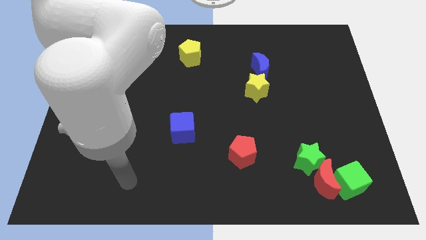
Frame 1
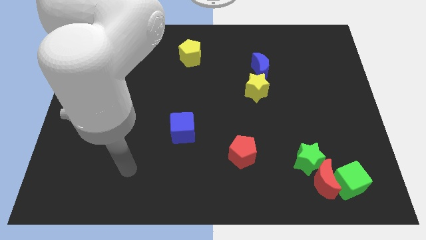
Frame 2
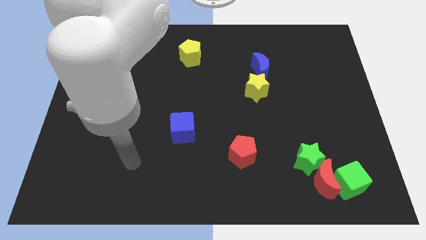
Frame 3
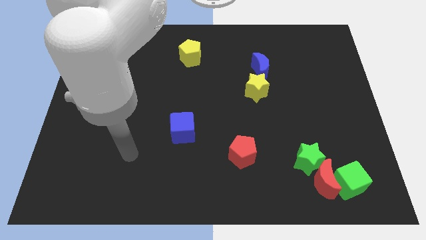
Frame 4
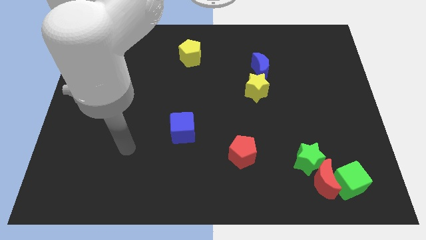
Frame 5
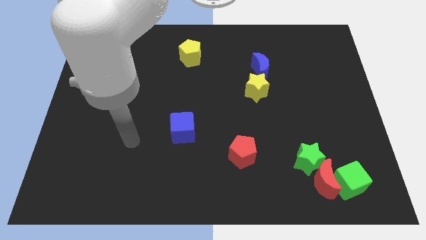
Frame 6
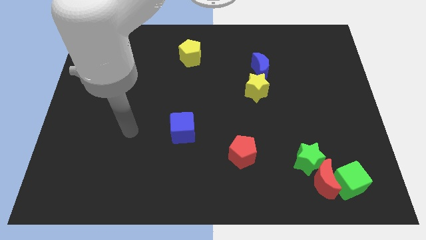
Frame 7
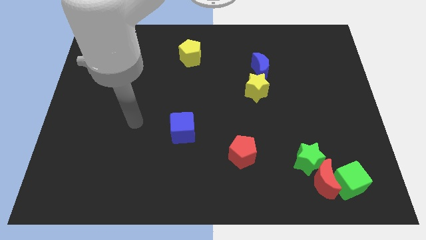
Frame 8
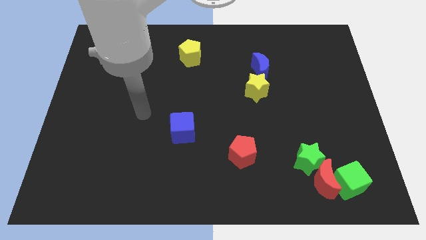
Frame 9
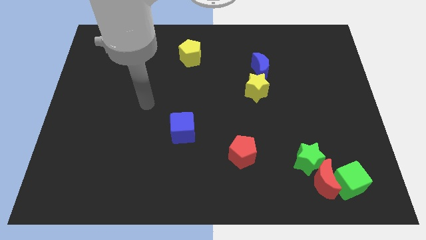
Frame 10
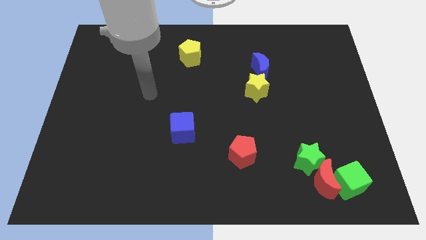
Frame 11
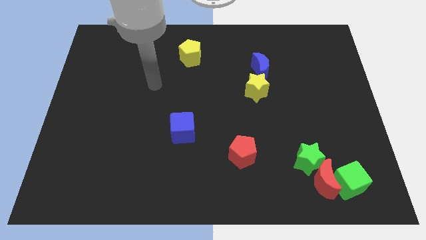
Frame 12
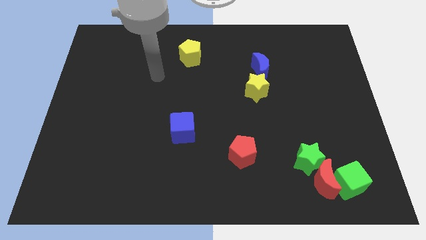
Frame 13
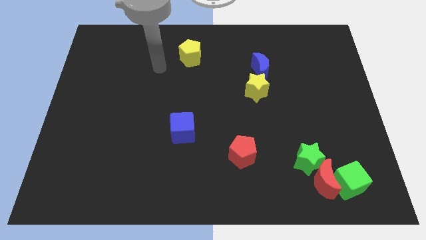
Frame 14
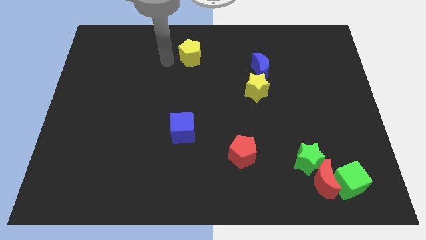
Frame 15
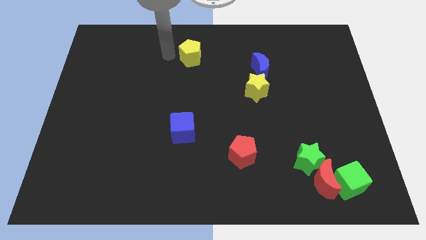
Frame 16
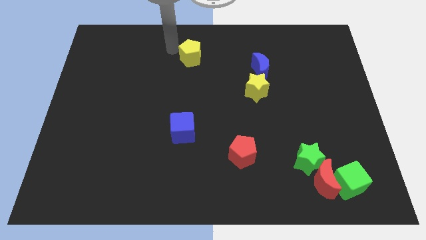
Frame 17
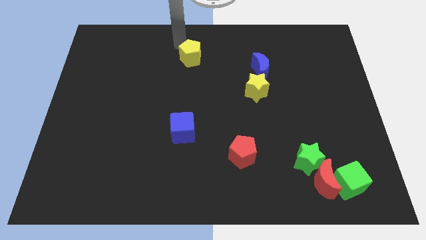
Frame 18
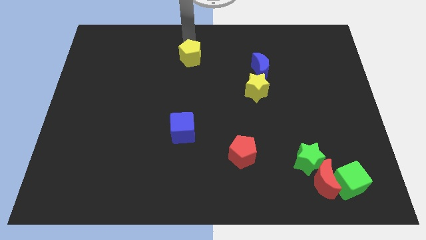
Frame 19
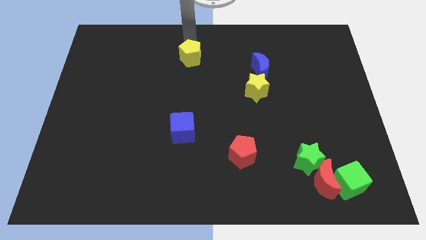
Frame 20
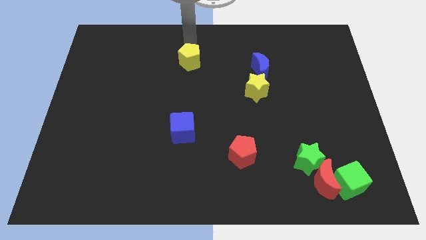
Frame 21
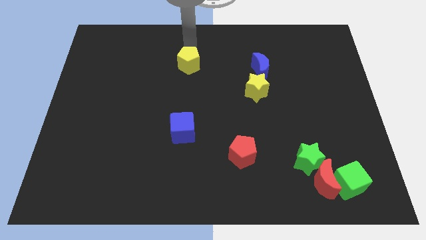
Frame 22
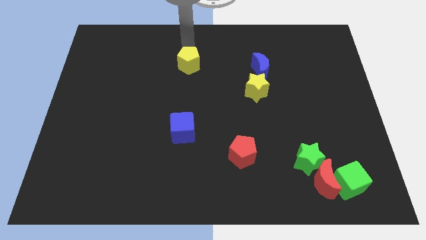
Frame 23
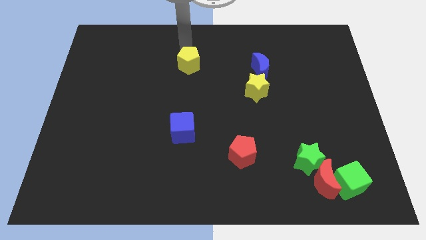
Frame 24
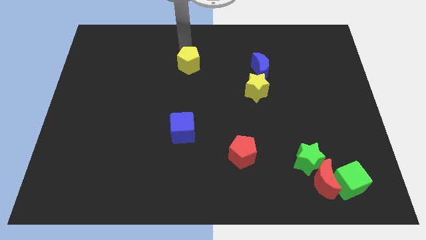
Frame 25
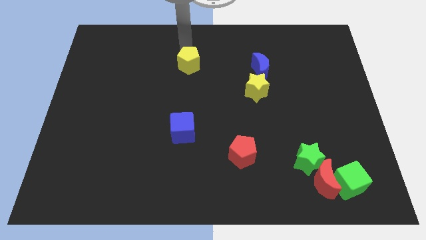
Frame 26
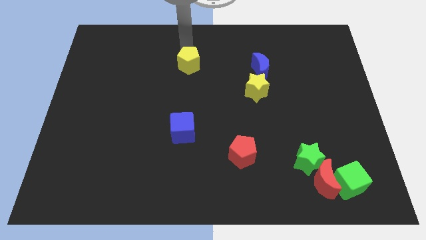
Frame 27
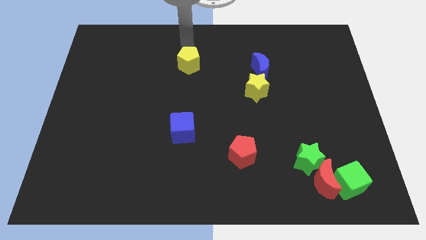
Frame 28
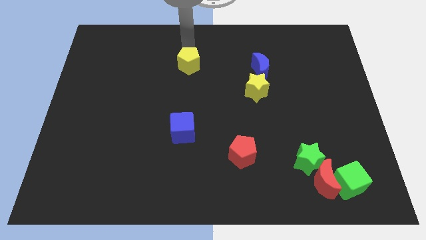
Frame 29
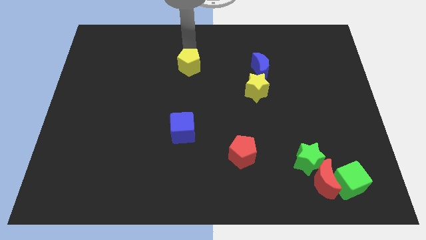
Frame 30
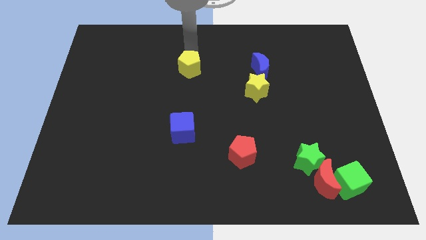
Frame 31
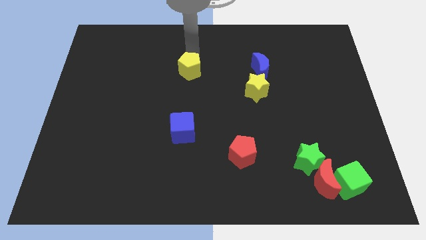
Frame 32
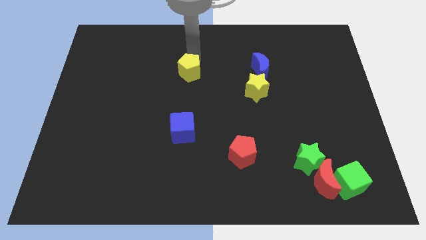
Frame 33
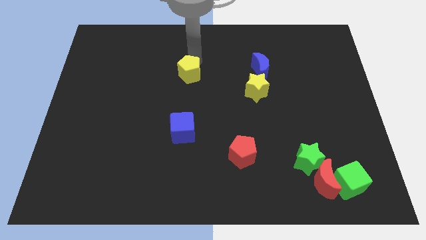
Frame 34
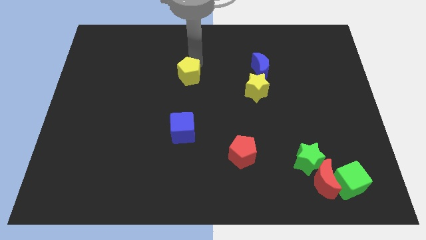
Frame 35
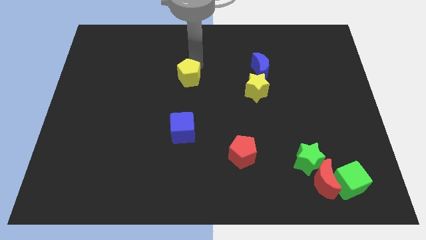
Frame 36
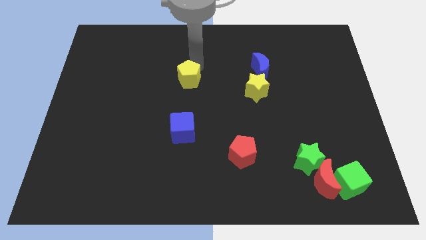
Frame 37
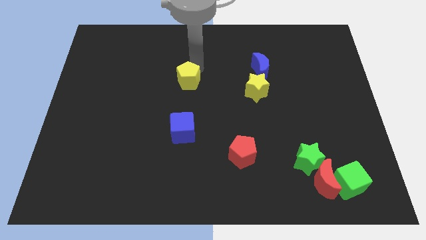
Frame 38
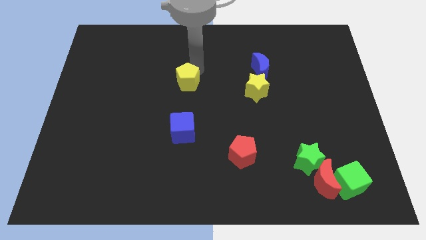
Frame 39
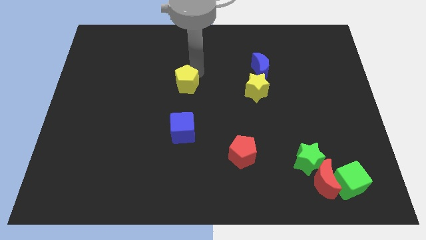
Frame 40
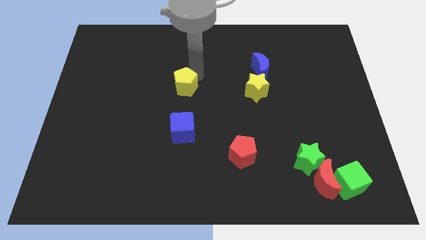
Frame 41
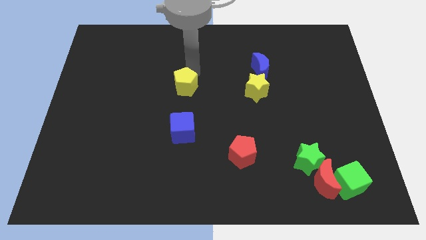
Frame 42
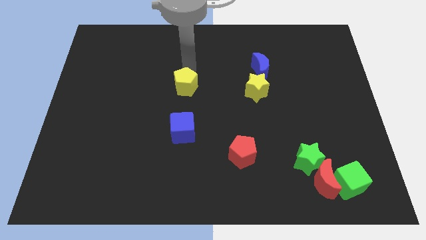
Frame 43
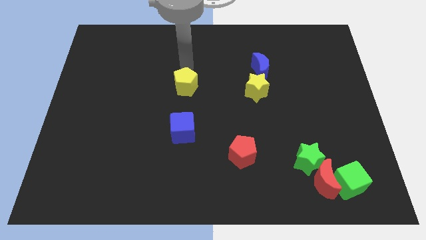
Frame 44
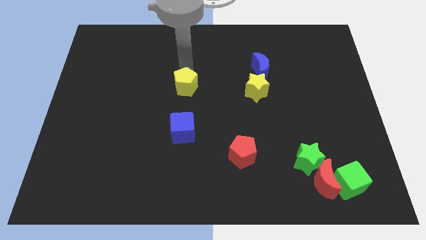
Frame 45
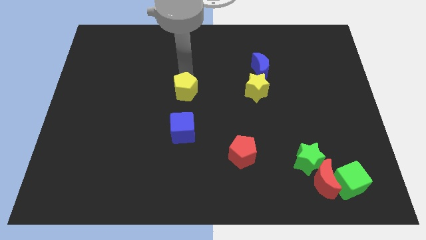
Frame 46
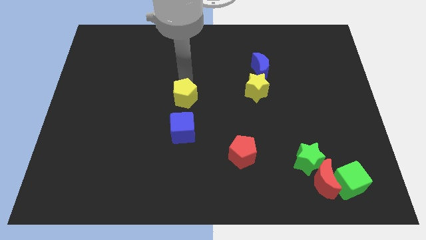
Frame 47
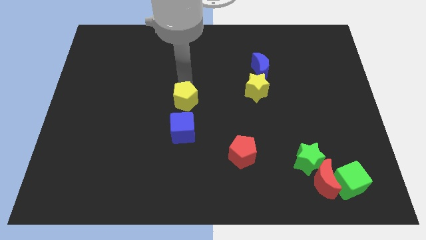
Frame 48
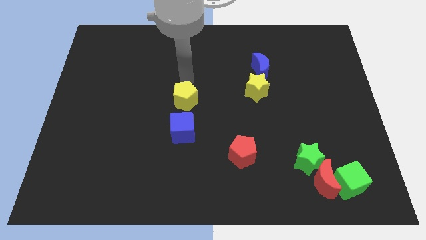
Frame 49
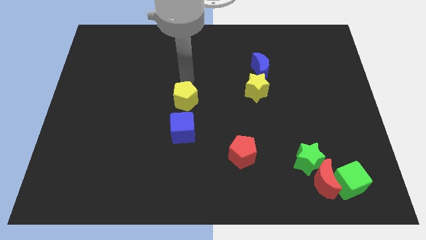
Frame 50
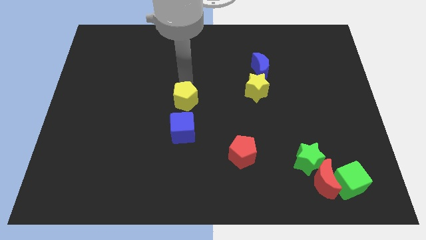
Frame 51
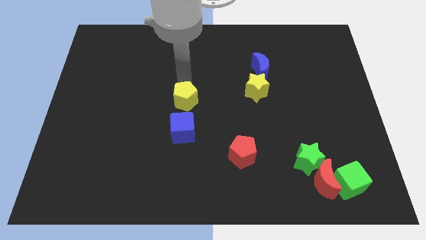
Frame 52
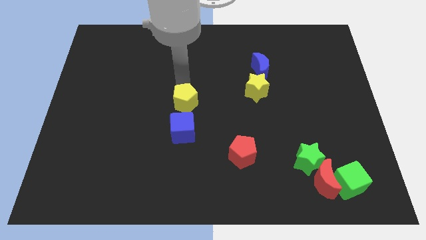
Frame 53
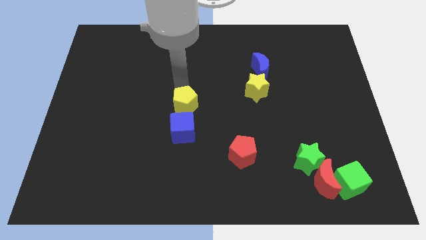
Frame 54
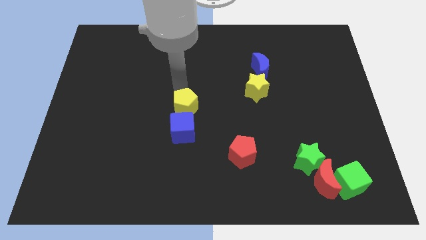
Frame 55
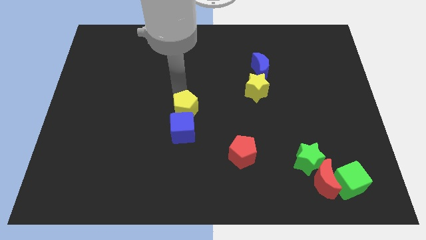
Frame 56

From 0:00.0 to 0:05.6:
slide the yellow pentagon close to the blue cube

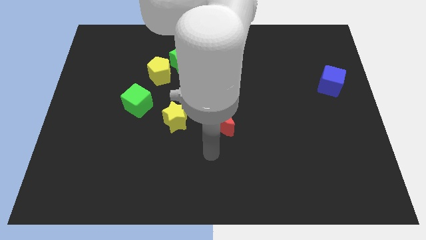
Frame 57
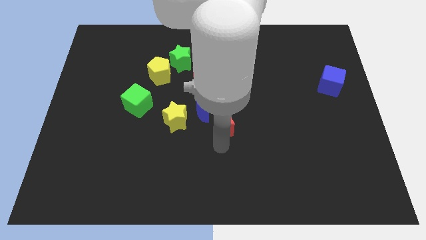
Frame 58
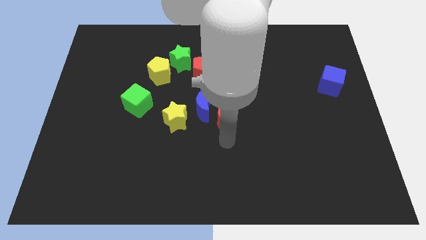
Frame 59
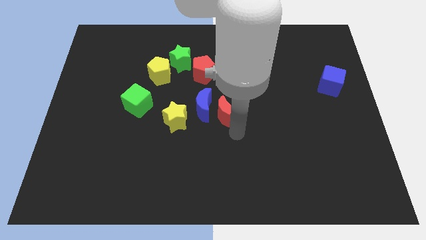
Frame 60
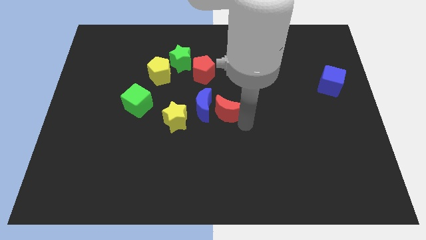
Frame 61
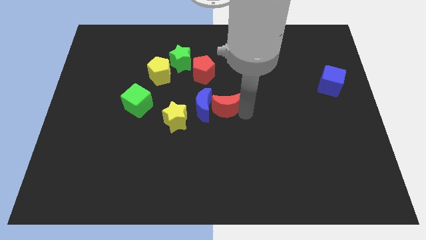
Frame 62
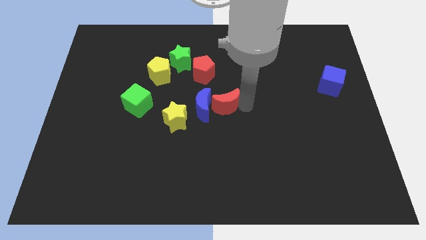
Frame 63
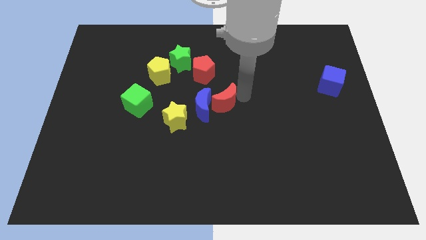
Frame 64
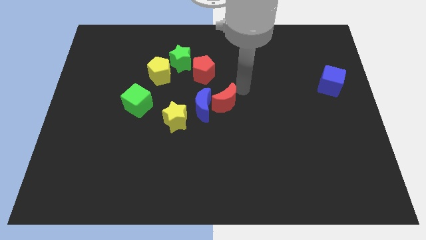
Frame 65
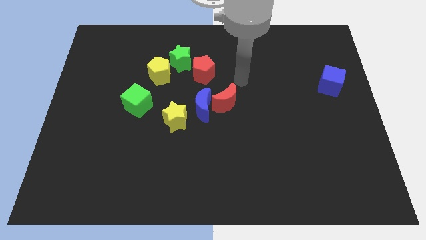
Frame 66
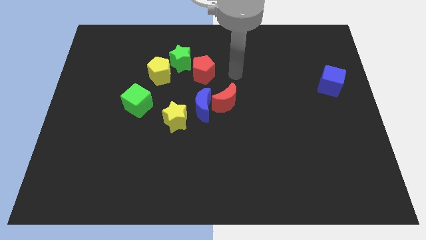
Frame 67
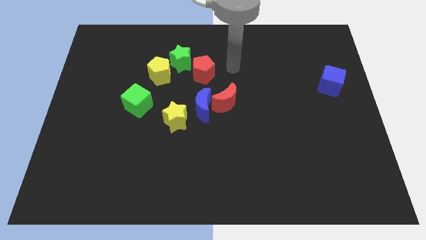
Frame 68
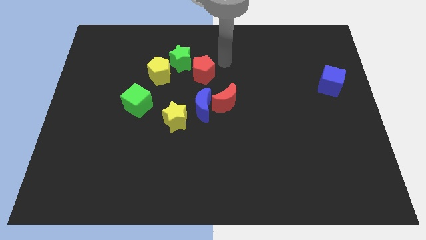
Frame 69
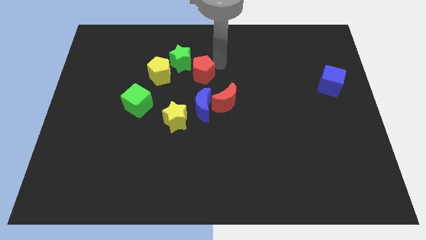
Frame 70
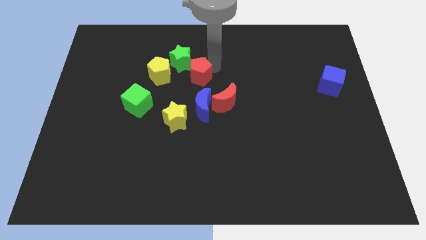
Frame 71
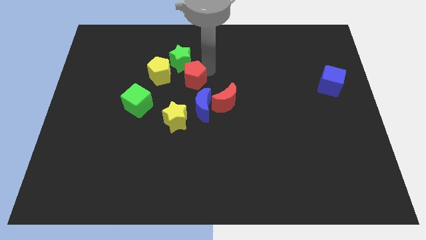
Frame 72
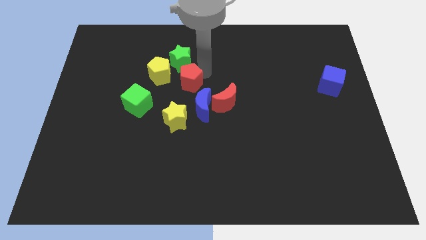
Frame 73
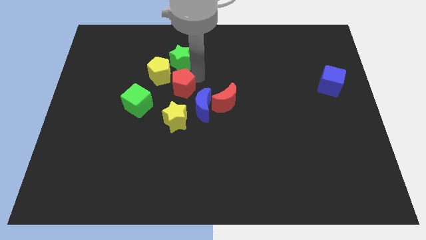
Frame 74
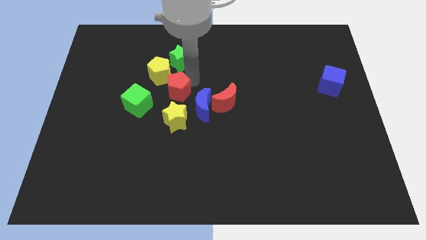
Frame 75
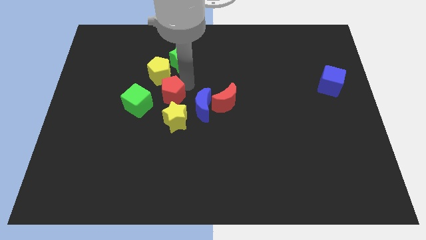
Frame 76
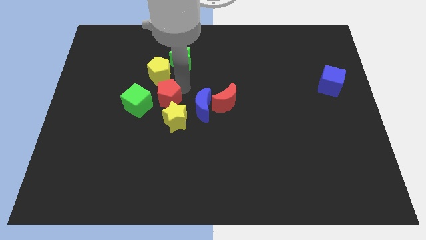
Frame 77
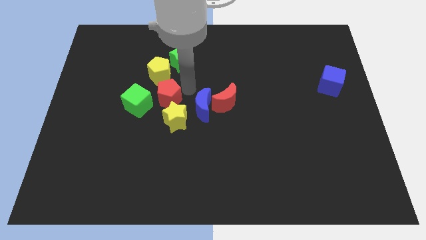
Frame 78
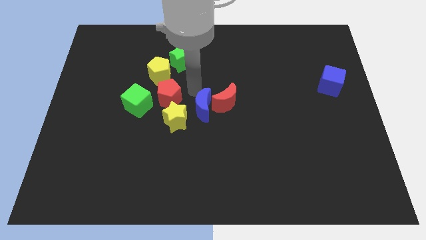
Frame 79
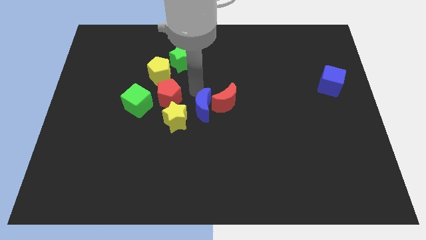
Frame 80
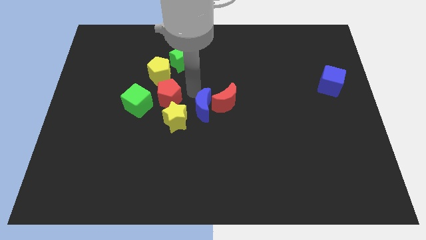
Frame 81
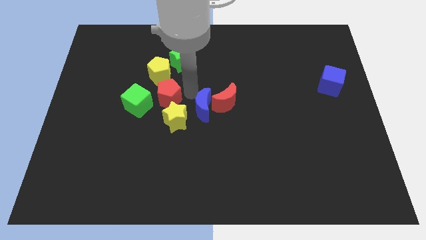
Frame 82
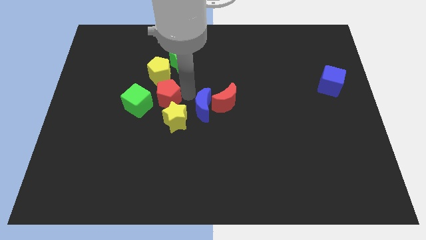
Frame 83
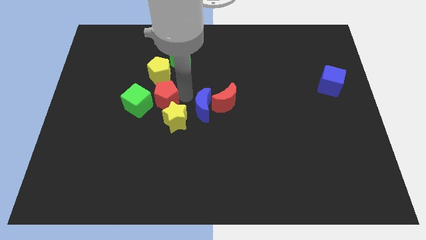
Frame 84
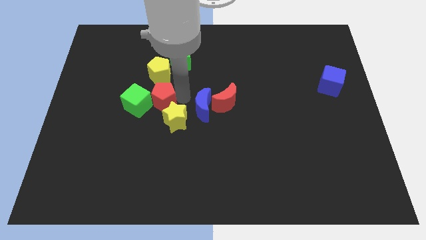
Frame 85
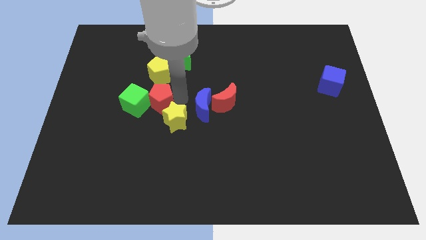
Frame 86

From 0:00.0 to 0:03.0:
put the red pentagon towards the green cube
